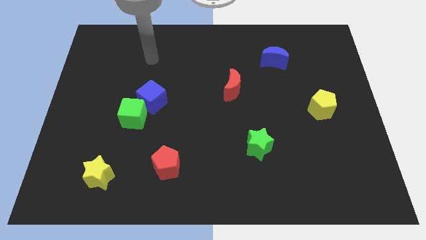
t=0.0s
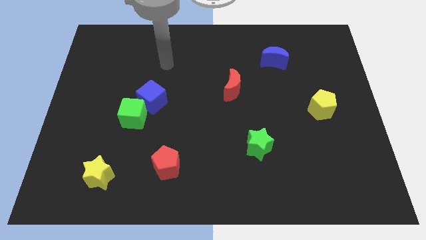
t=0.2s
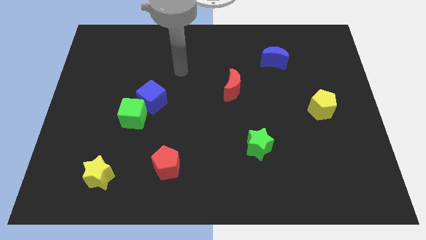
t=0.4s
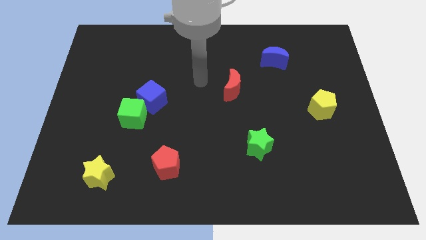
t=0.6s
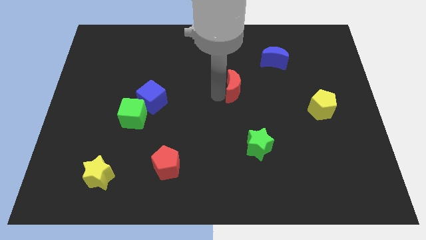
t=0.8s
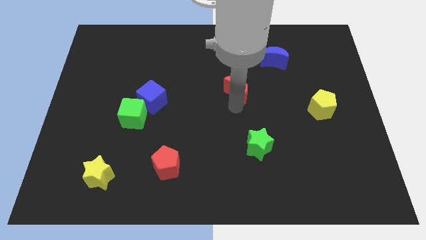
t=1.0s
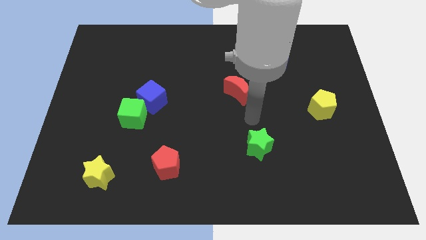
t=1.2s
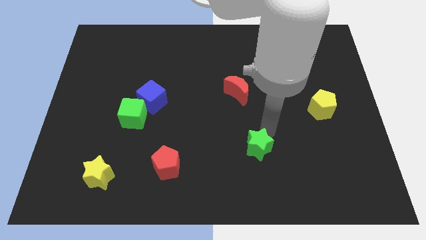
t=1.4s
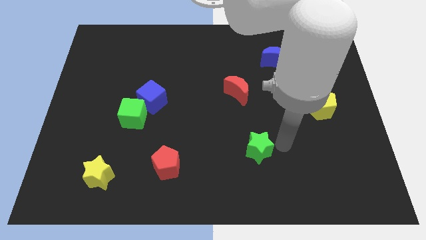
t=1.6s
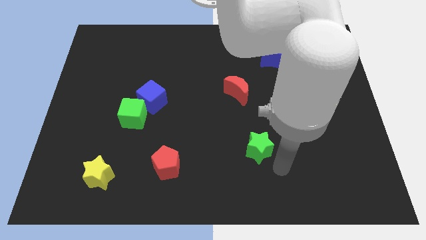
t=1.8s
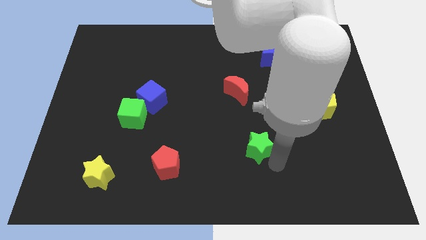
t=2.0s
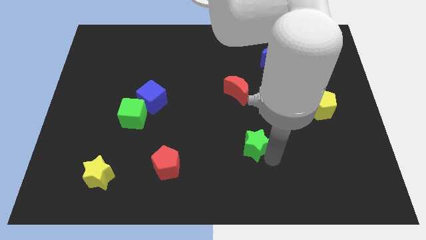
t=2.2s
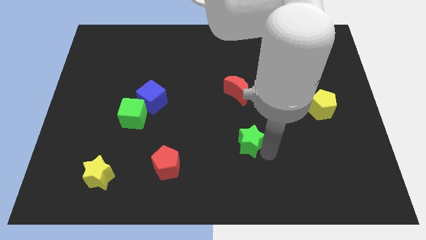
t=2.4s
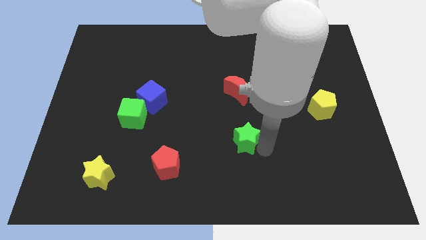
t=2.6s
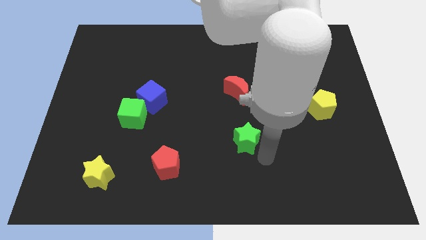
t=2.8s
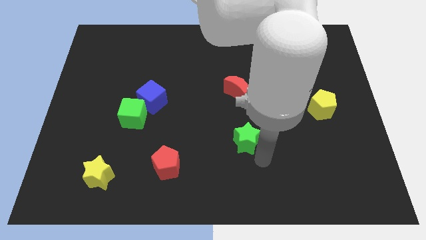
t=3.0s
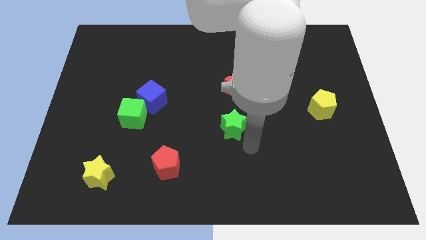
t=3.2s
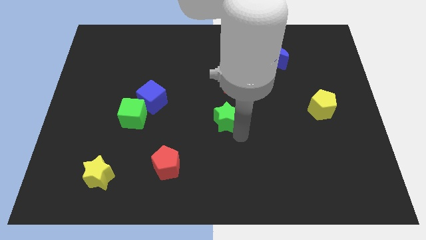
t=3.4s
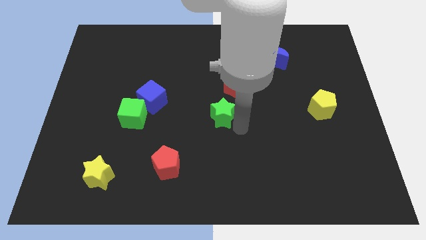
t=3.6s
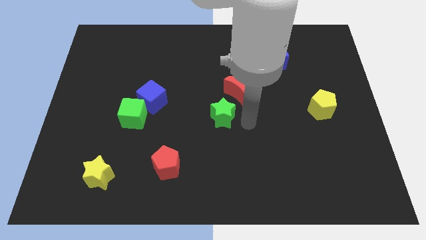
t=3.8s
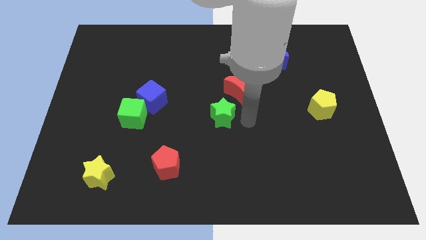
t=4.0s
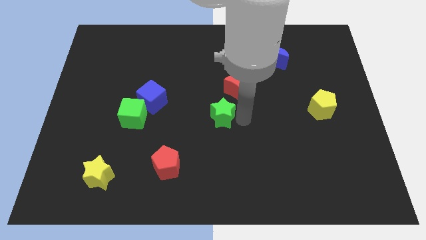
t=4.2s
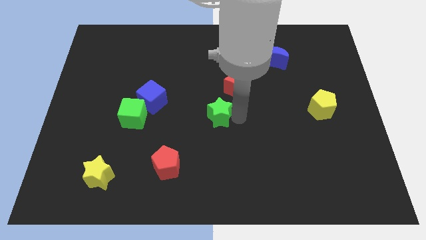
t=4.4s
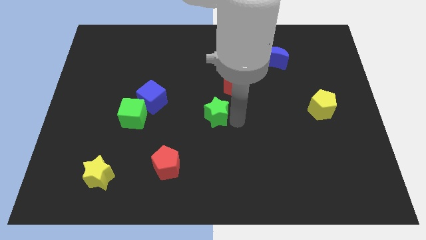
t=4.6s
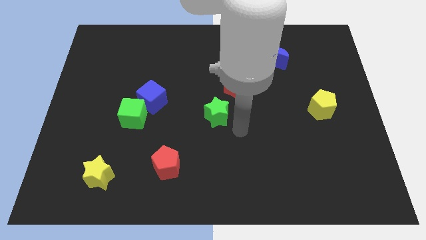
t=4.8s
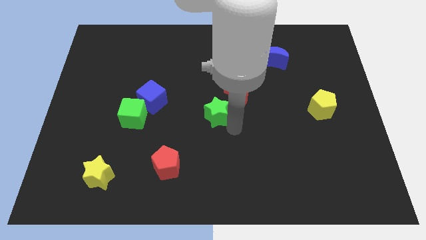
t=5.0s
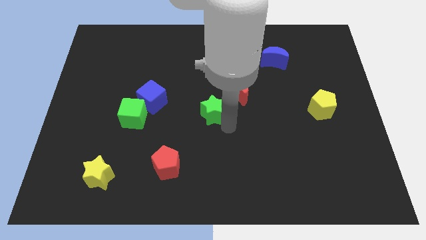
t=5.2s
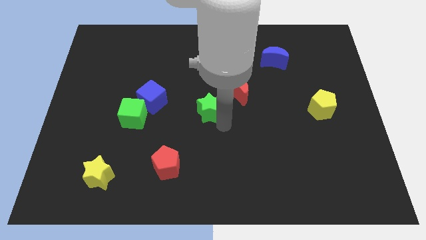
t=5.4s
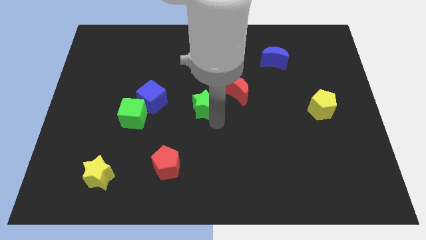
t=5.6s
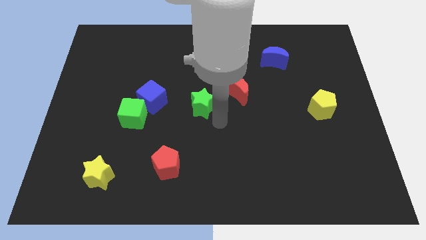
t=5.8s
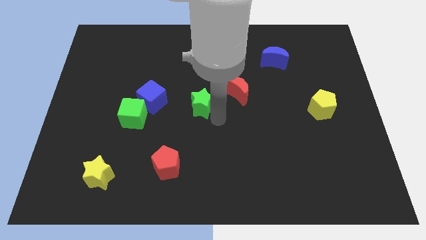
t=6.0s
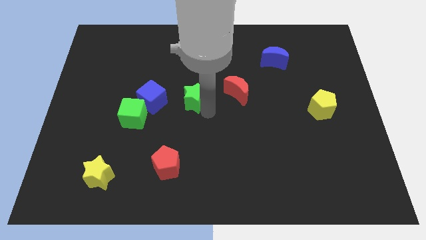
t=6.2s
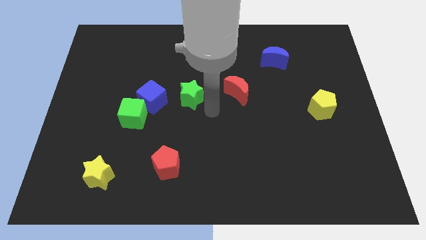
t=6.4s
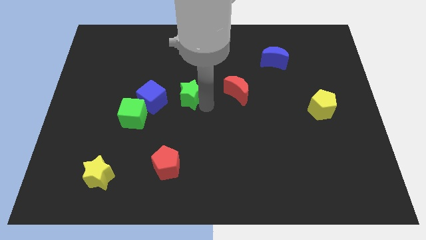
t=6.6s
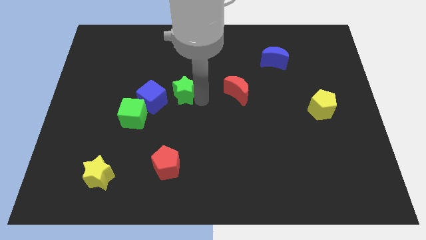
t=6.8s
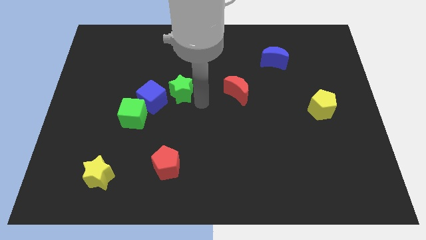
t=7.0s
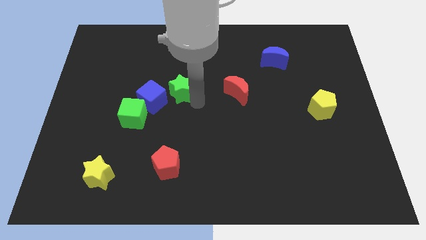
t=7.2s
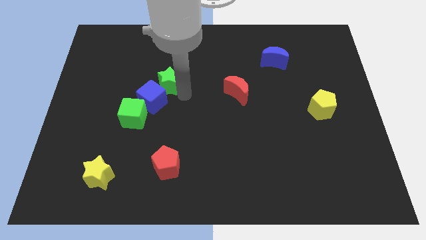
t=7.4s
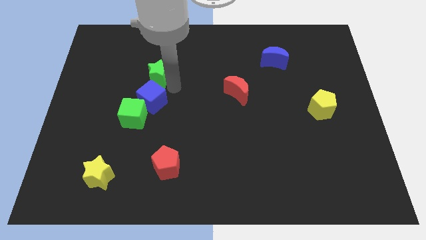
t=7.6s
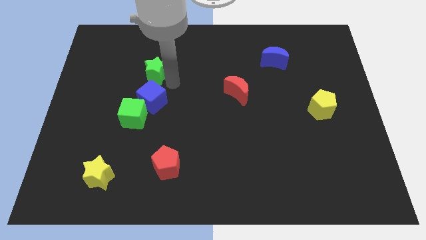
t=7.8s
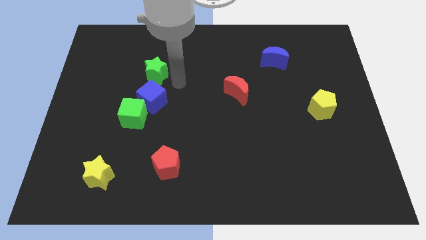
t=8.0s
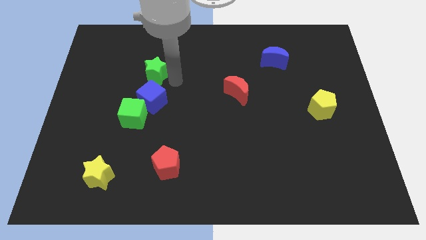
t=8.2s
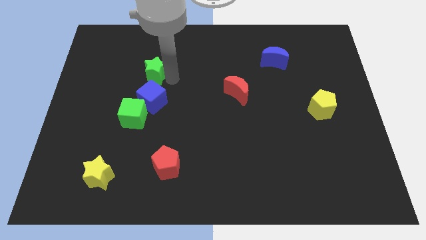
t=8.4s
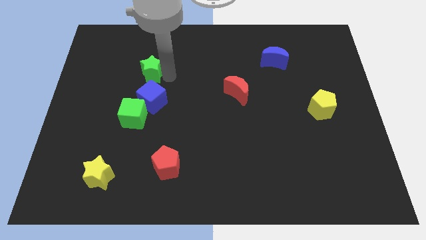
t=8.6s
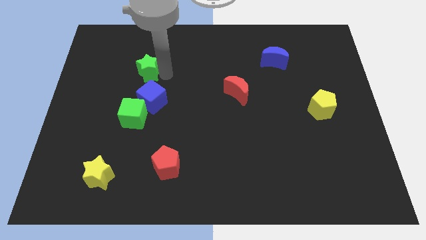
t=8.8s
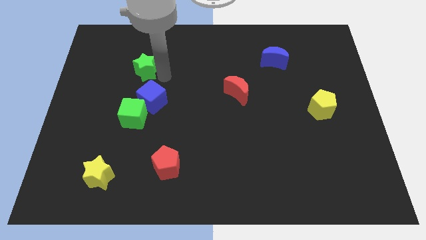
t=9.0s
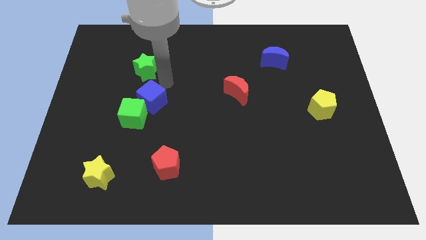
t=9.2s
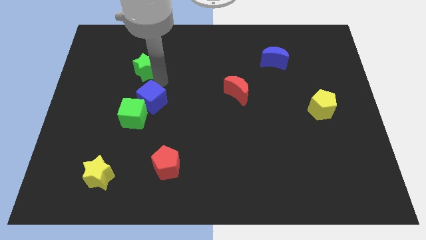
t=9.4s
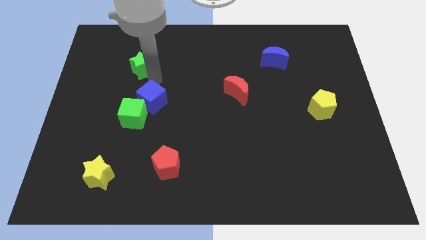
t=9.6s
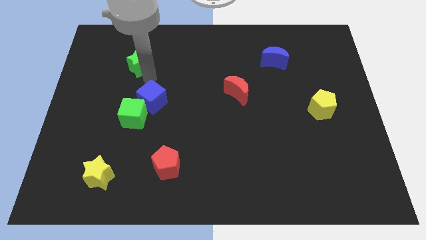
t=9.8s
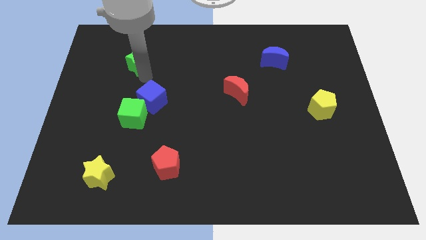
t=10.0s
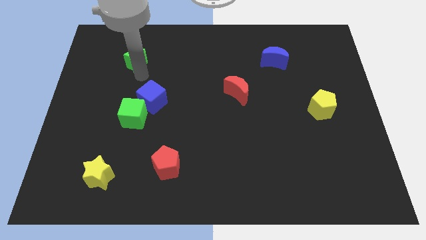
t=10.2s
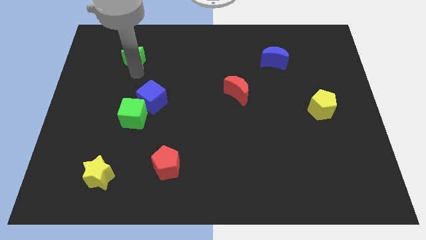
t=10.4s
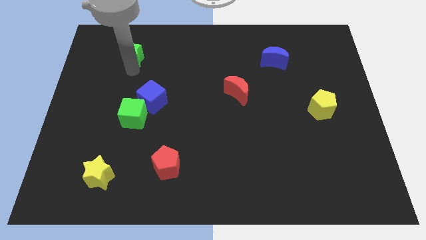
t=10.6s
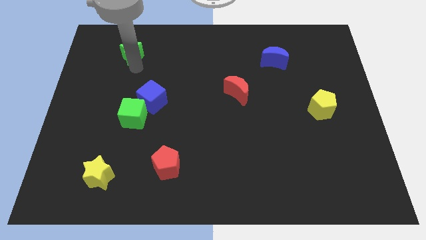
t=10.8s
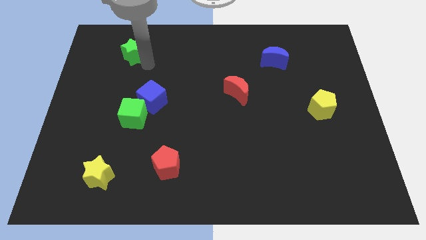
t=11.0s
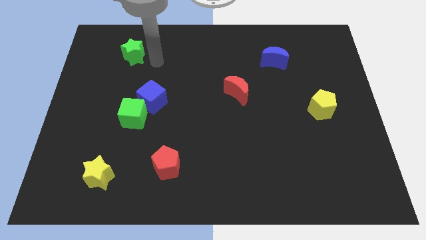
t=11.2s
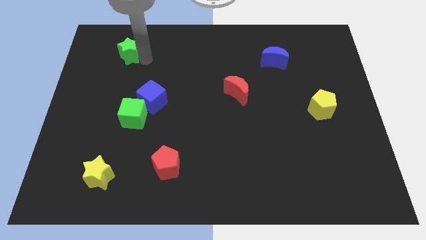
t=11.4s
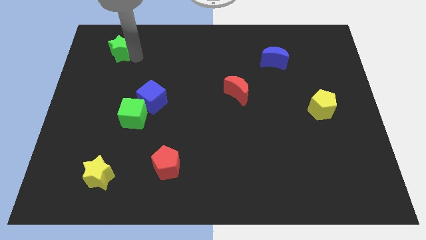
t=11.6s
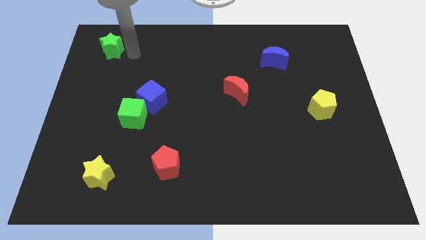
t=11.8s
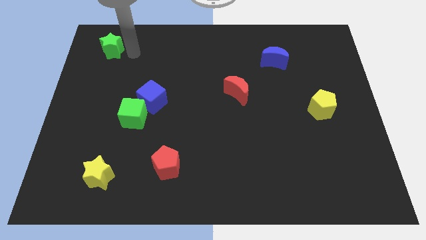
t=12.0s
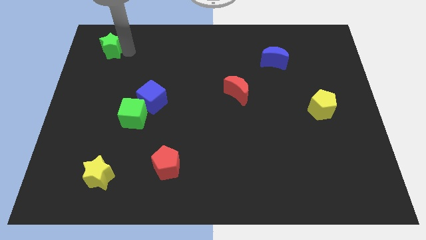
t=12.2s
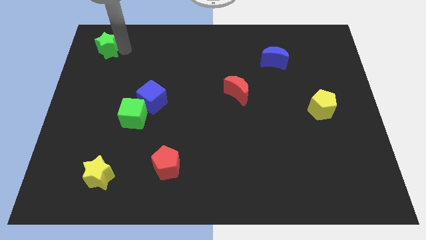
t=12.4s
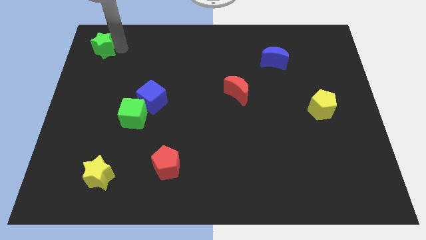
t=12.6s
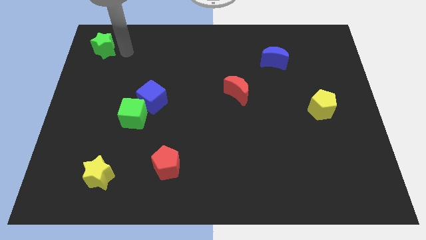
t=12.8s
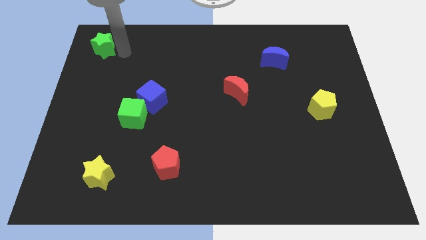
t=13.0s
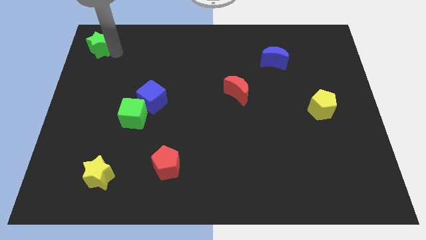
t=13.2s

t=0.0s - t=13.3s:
slide the green star to the top left of the board
